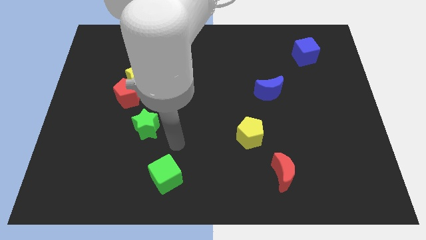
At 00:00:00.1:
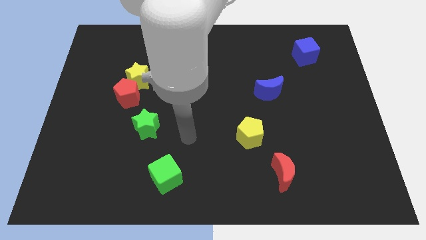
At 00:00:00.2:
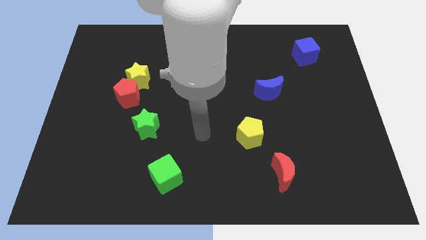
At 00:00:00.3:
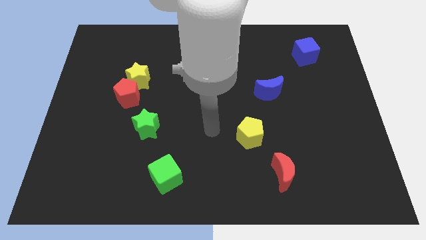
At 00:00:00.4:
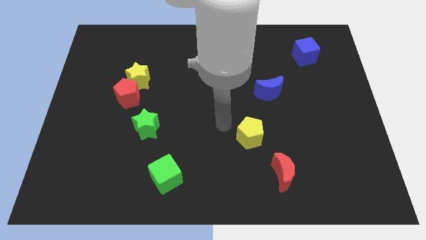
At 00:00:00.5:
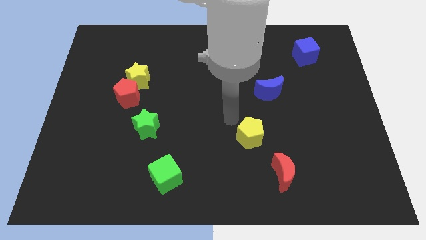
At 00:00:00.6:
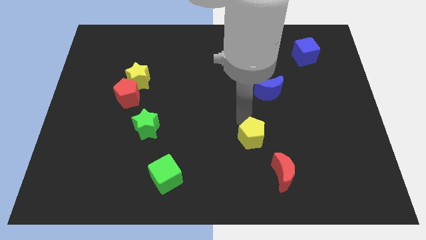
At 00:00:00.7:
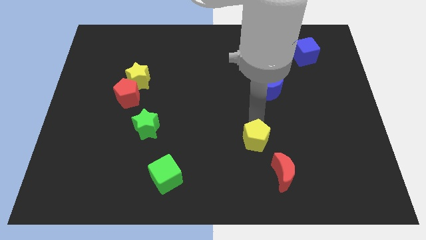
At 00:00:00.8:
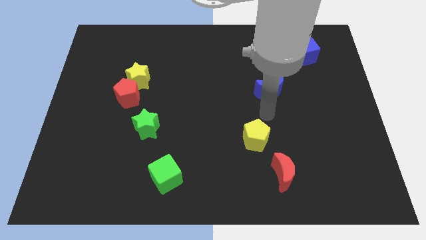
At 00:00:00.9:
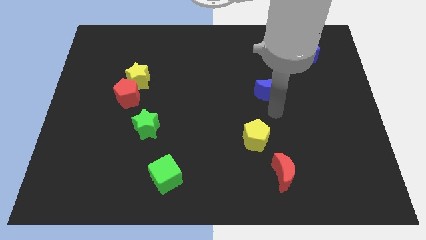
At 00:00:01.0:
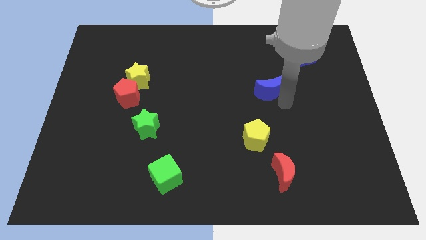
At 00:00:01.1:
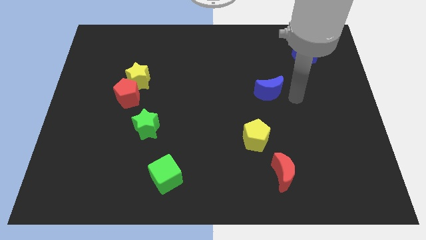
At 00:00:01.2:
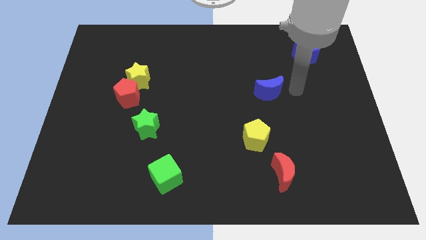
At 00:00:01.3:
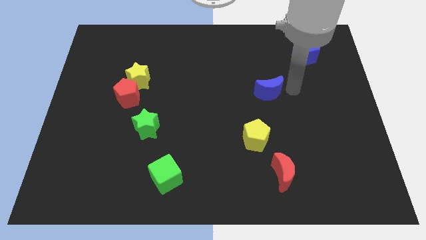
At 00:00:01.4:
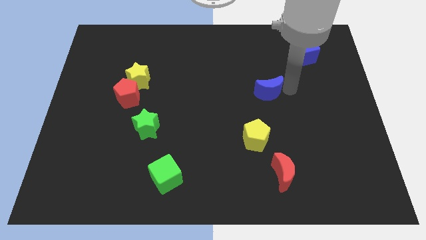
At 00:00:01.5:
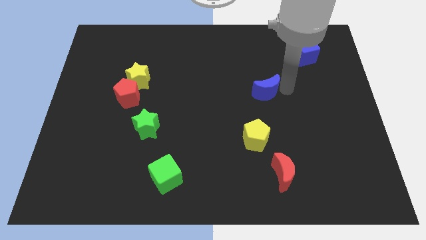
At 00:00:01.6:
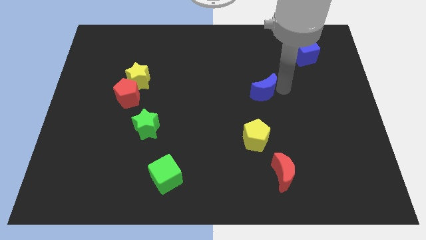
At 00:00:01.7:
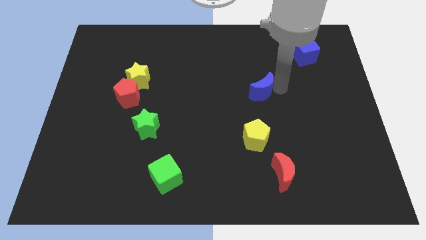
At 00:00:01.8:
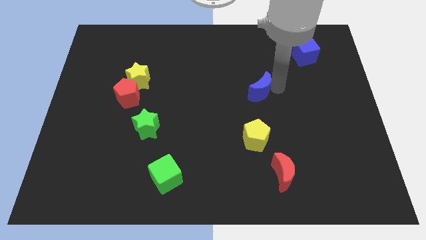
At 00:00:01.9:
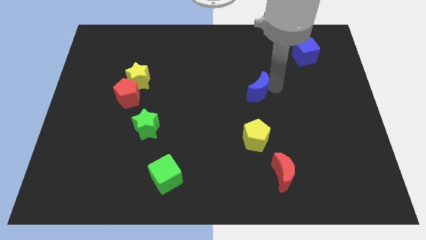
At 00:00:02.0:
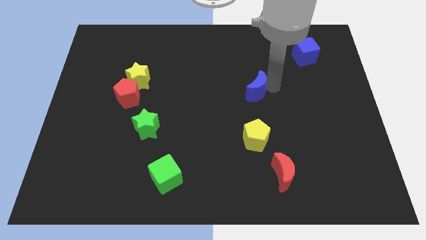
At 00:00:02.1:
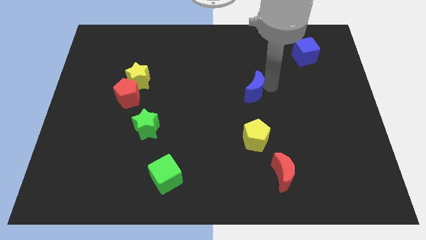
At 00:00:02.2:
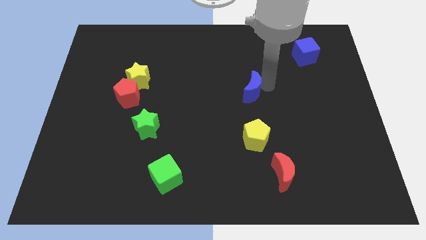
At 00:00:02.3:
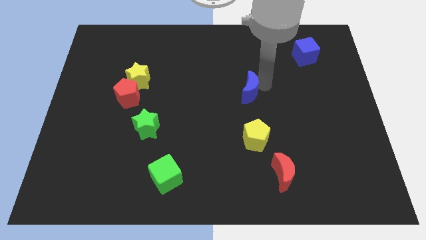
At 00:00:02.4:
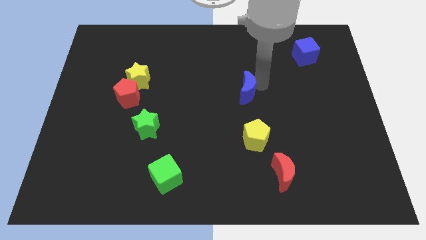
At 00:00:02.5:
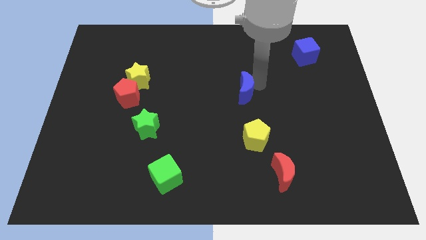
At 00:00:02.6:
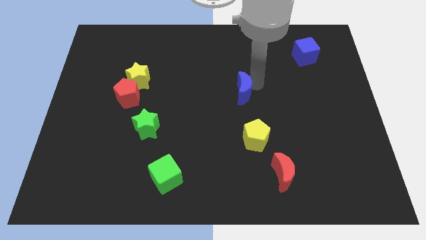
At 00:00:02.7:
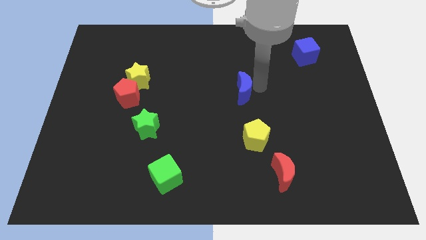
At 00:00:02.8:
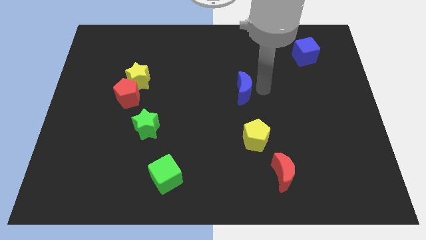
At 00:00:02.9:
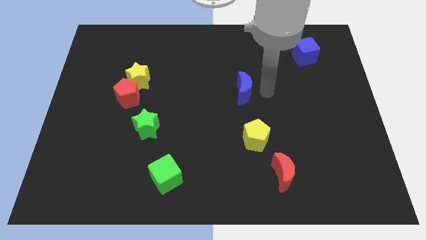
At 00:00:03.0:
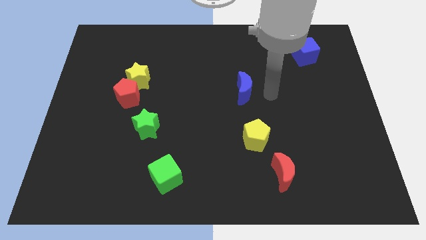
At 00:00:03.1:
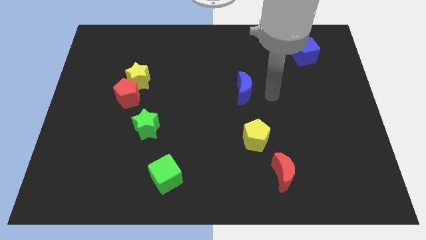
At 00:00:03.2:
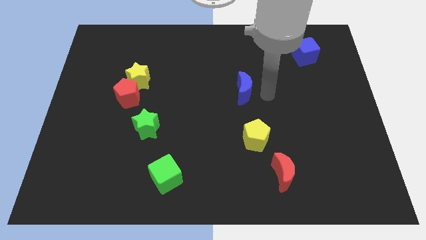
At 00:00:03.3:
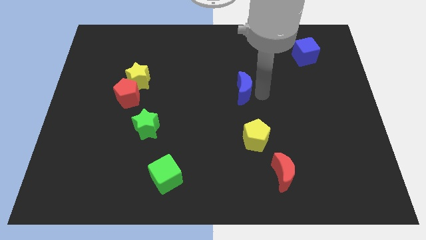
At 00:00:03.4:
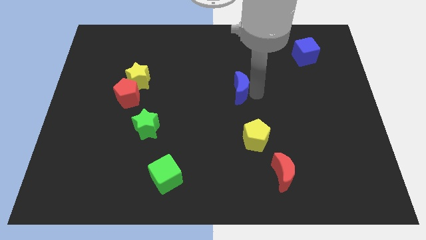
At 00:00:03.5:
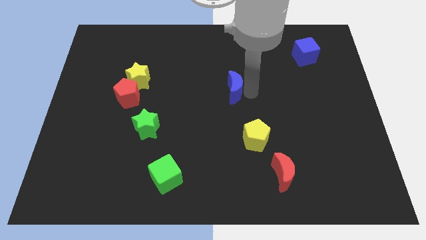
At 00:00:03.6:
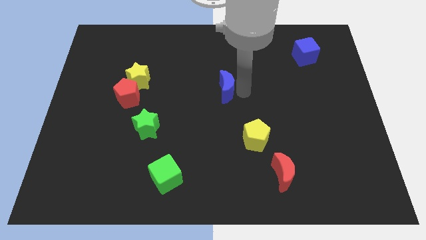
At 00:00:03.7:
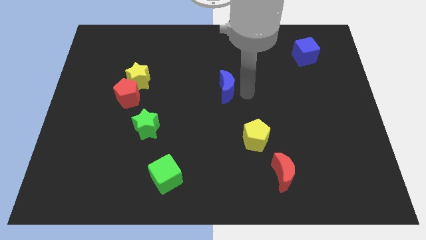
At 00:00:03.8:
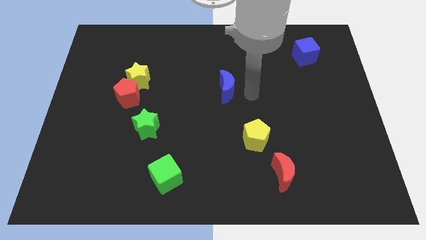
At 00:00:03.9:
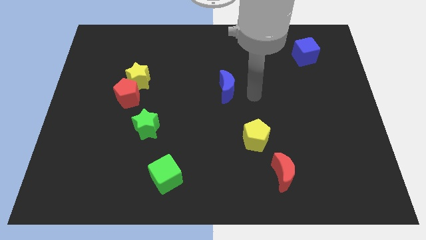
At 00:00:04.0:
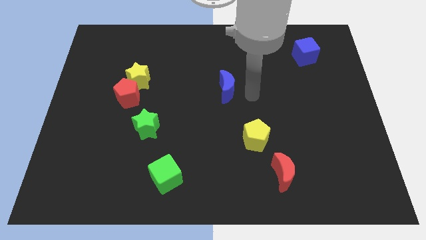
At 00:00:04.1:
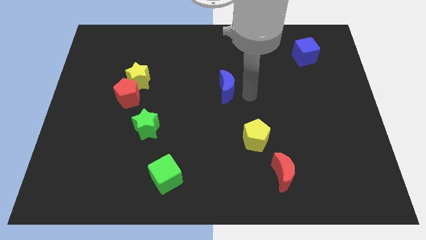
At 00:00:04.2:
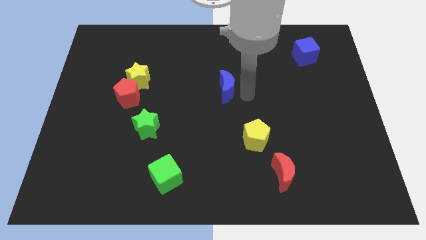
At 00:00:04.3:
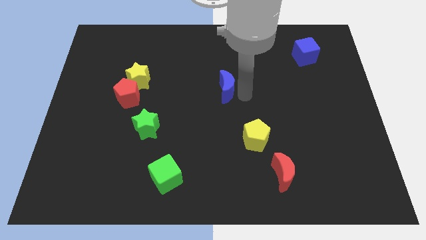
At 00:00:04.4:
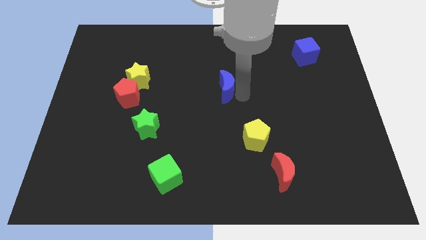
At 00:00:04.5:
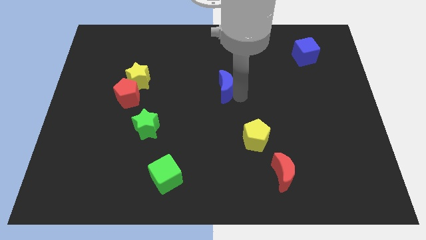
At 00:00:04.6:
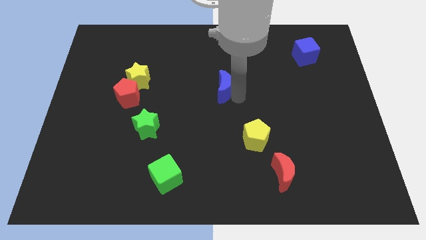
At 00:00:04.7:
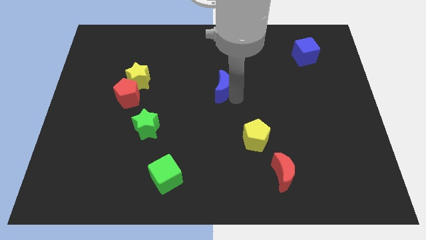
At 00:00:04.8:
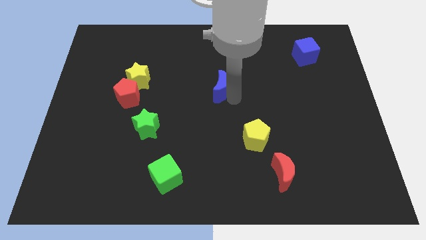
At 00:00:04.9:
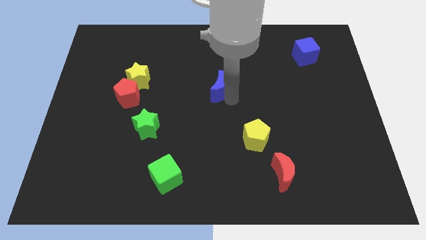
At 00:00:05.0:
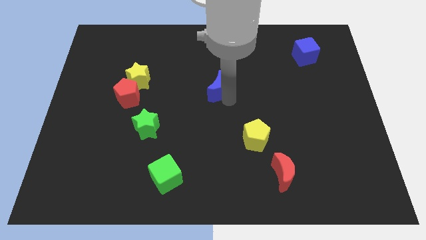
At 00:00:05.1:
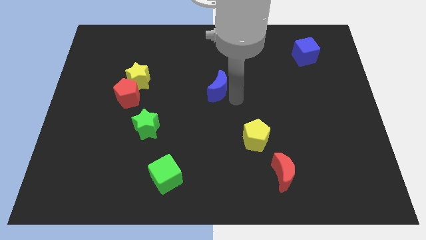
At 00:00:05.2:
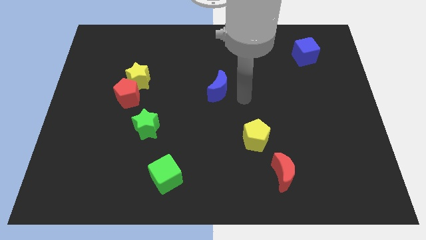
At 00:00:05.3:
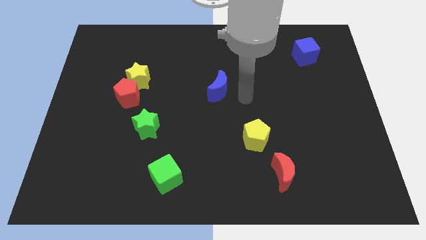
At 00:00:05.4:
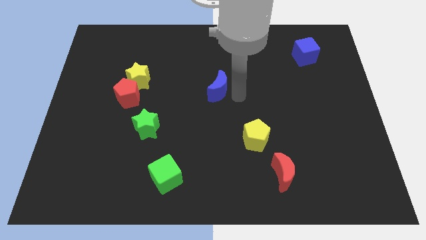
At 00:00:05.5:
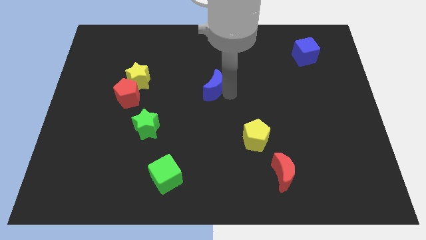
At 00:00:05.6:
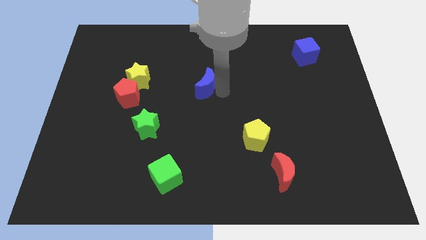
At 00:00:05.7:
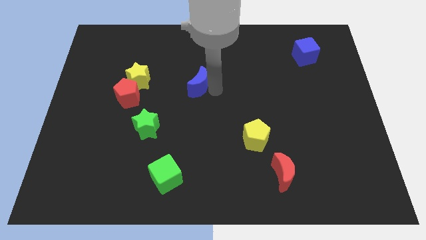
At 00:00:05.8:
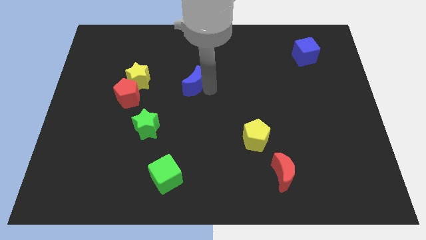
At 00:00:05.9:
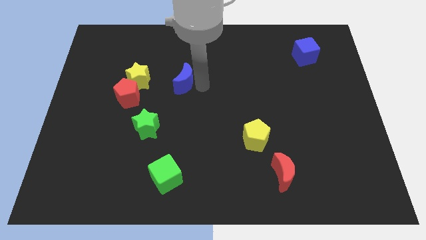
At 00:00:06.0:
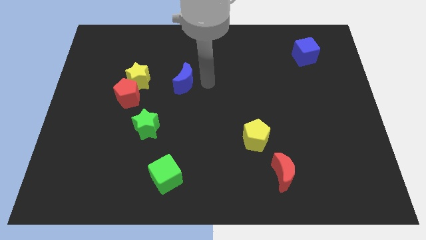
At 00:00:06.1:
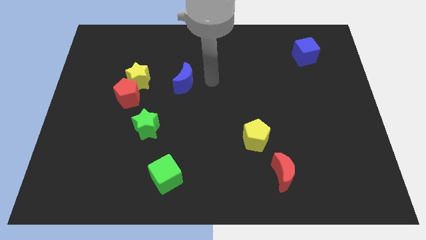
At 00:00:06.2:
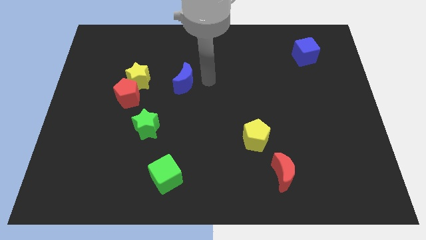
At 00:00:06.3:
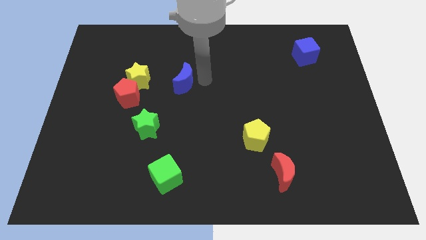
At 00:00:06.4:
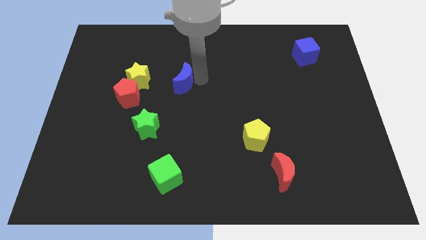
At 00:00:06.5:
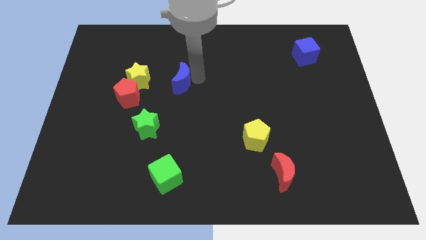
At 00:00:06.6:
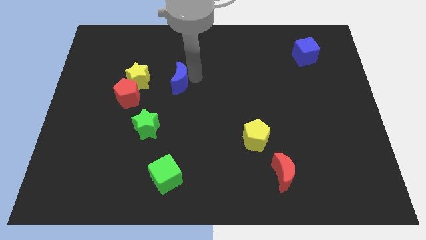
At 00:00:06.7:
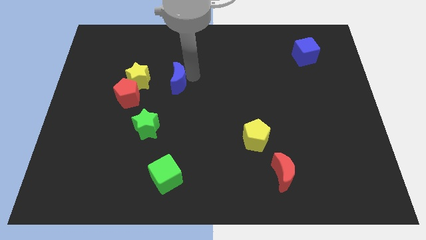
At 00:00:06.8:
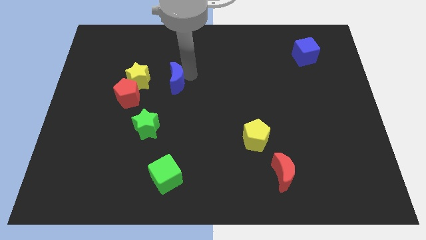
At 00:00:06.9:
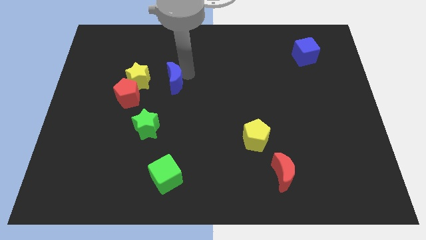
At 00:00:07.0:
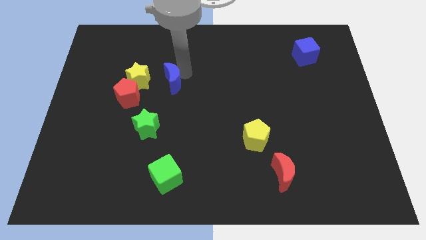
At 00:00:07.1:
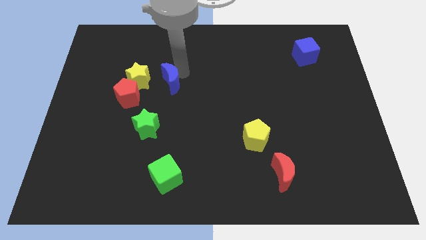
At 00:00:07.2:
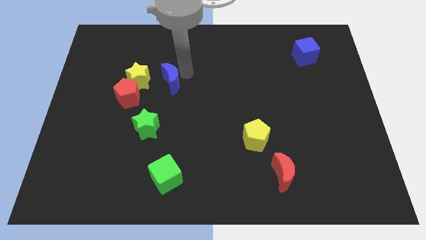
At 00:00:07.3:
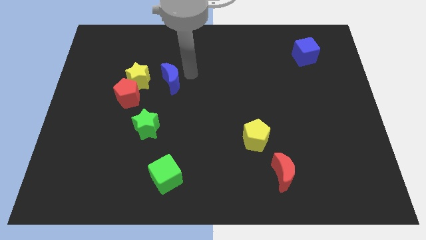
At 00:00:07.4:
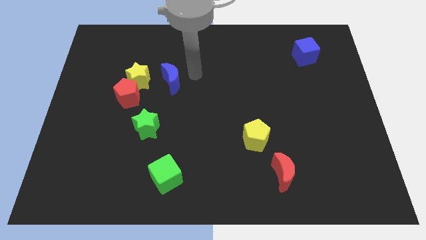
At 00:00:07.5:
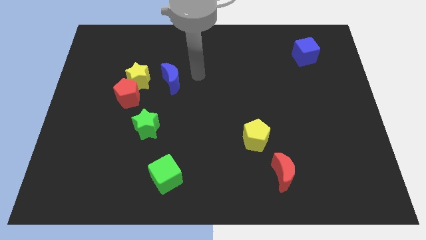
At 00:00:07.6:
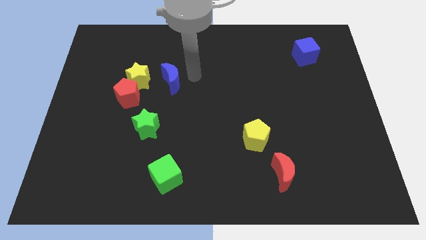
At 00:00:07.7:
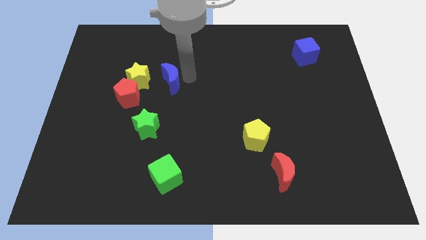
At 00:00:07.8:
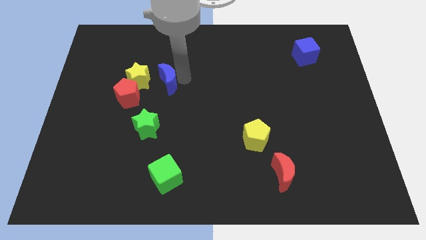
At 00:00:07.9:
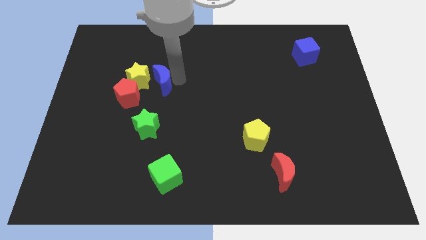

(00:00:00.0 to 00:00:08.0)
slide the blue moon close to the yellow star
